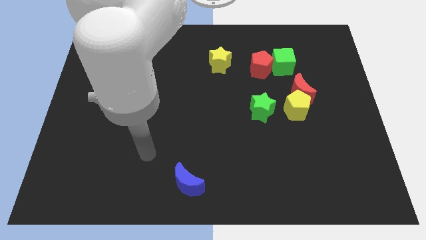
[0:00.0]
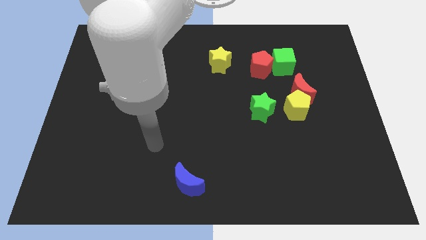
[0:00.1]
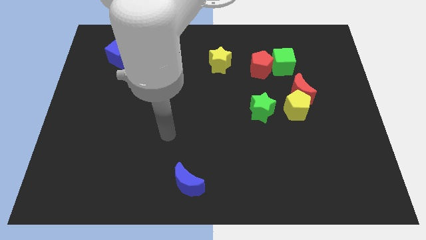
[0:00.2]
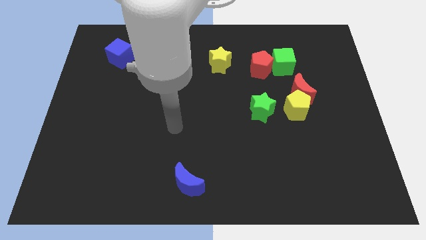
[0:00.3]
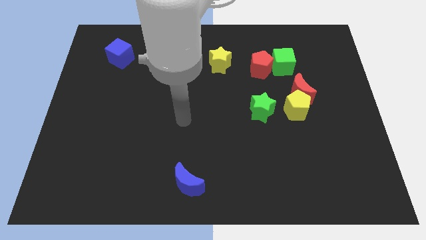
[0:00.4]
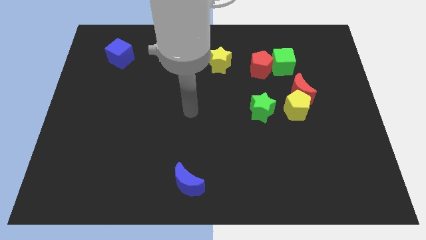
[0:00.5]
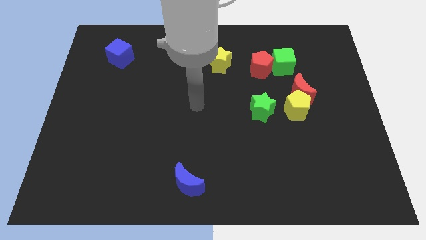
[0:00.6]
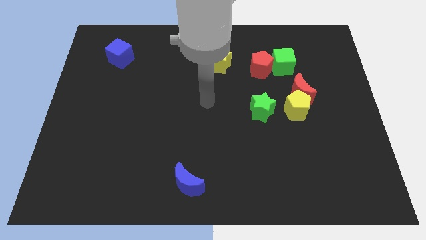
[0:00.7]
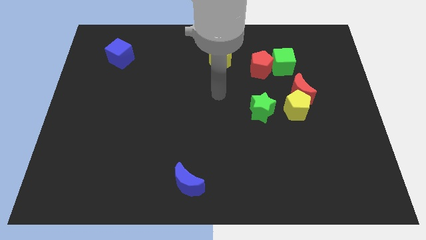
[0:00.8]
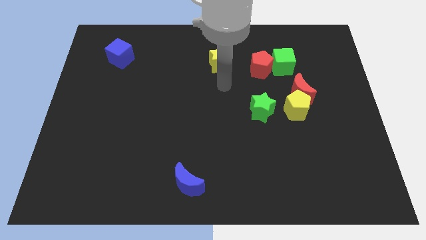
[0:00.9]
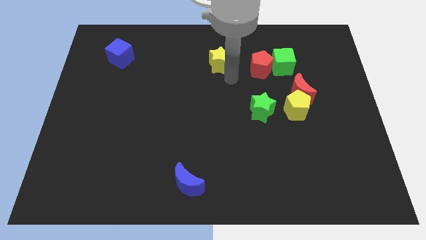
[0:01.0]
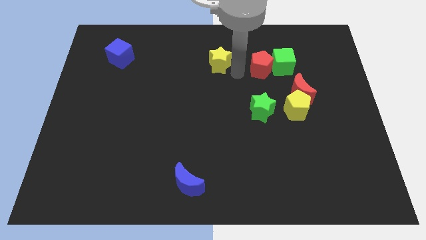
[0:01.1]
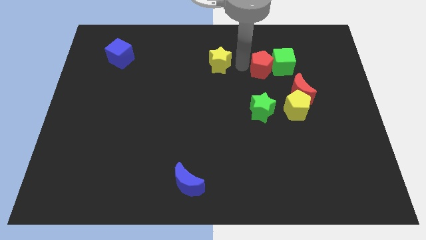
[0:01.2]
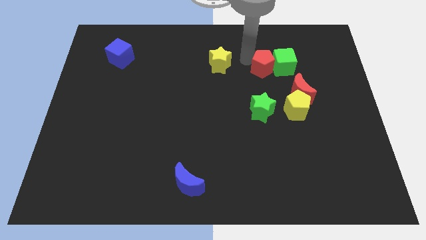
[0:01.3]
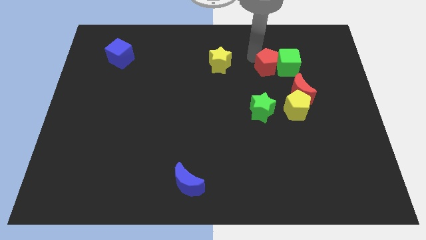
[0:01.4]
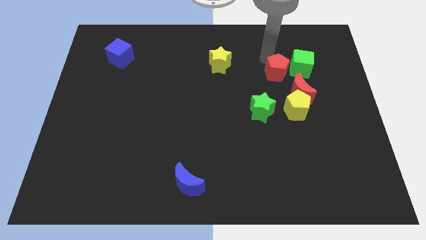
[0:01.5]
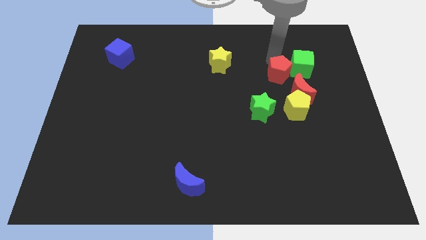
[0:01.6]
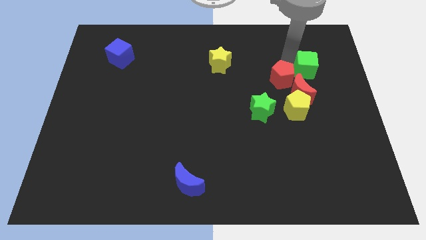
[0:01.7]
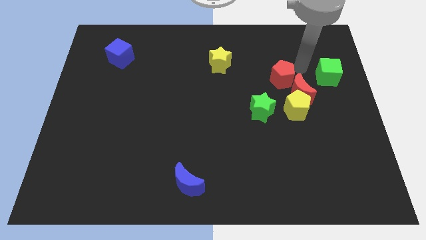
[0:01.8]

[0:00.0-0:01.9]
move the red pentagon away from the green cube

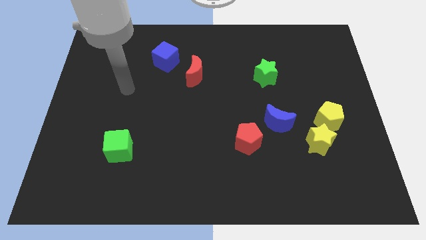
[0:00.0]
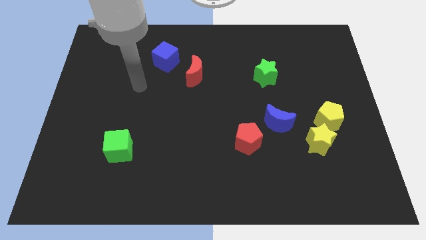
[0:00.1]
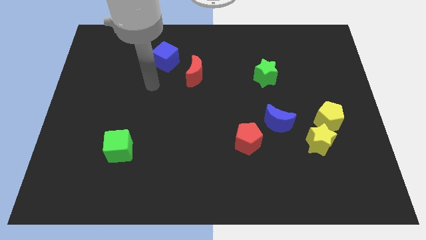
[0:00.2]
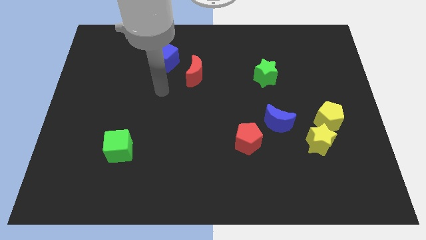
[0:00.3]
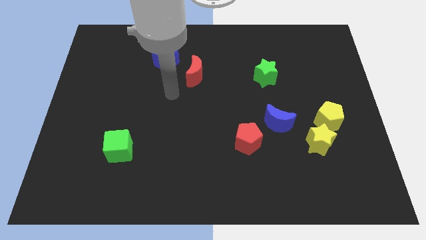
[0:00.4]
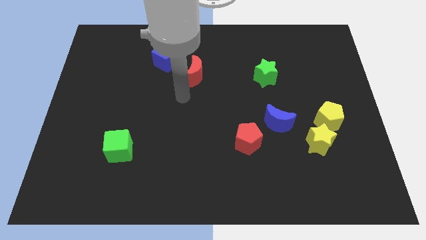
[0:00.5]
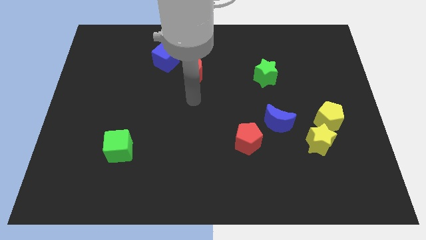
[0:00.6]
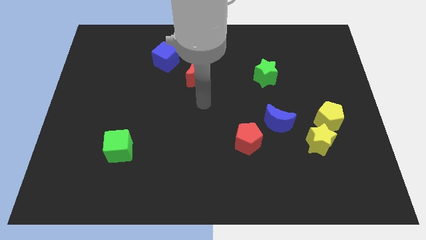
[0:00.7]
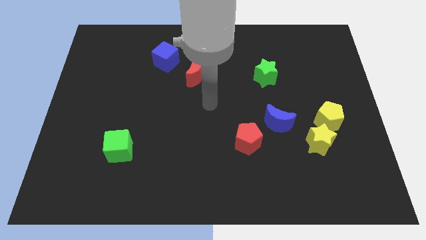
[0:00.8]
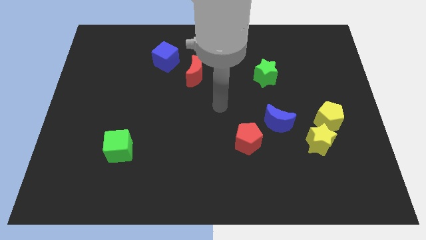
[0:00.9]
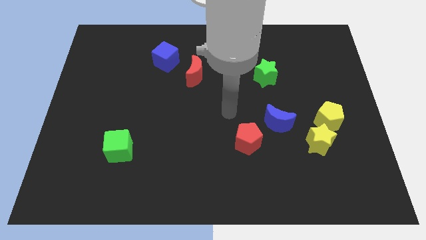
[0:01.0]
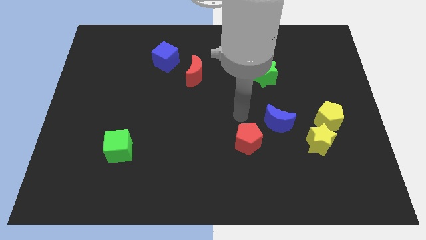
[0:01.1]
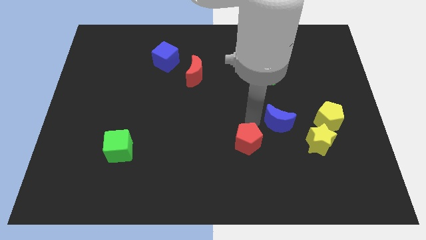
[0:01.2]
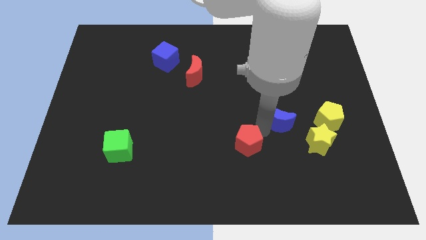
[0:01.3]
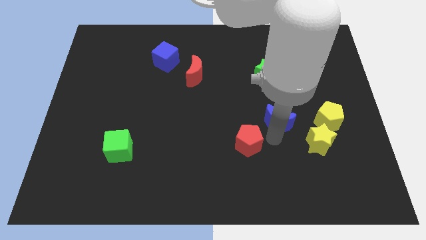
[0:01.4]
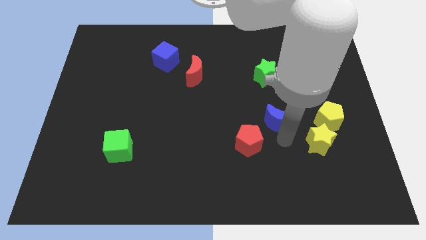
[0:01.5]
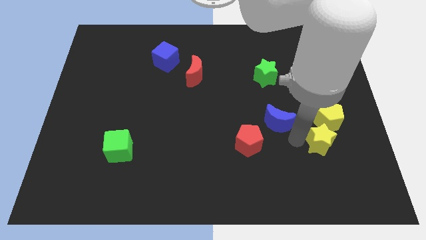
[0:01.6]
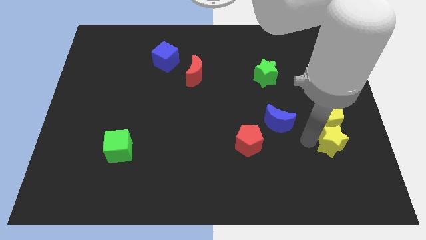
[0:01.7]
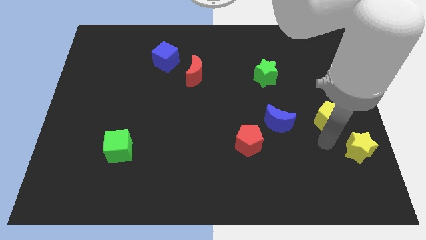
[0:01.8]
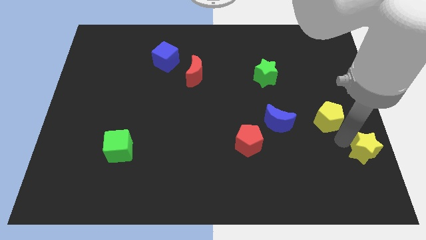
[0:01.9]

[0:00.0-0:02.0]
move the yellow pentagon away from the yellow star

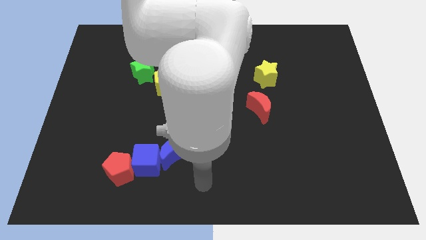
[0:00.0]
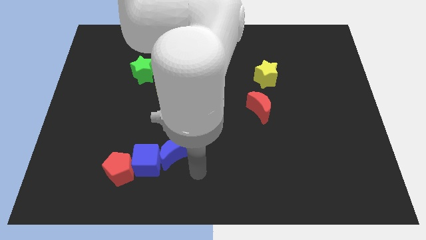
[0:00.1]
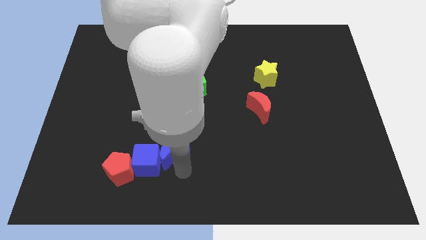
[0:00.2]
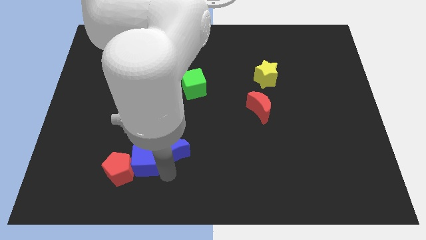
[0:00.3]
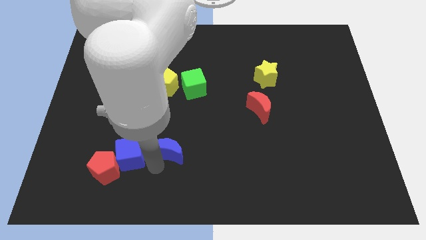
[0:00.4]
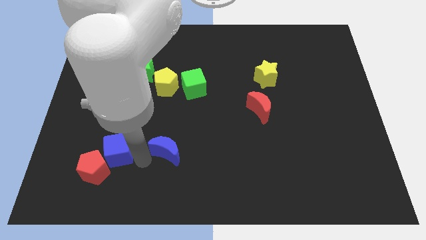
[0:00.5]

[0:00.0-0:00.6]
pull the blue moon apart from the blue cube

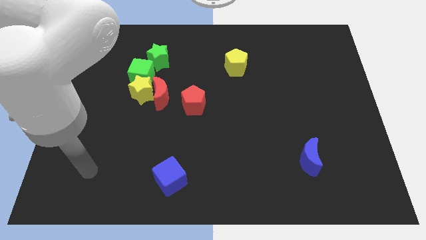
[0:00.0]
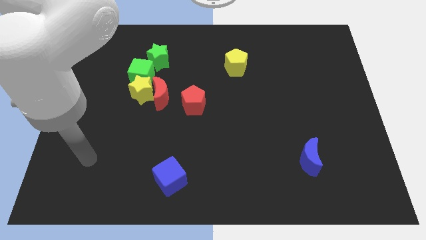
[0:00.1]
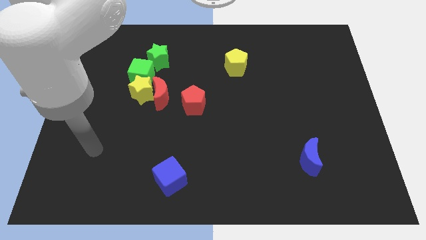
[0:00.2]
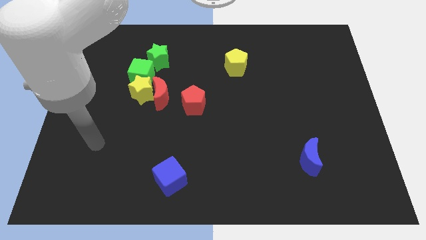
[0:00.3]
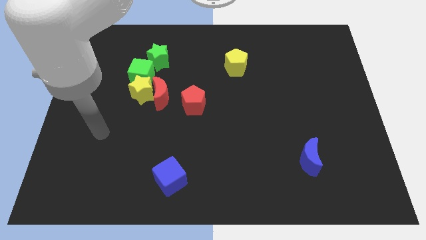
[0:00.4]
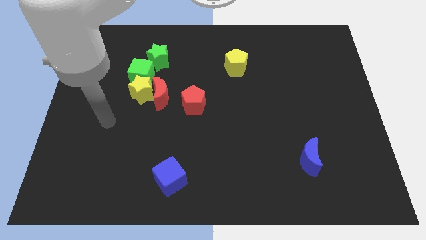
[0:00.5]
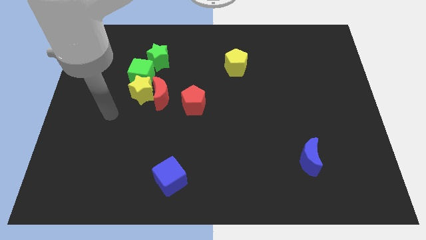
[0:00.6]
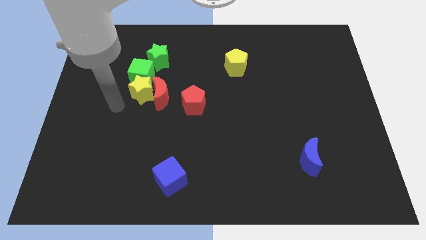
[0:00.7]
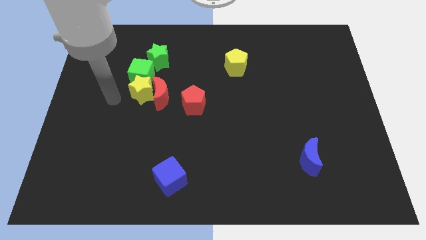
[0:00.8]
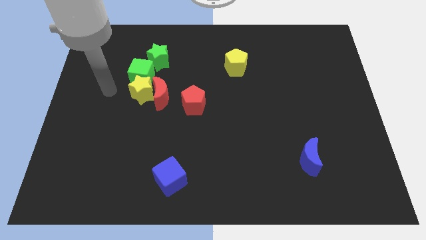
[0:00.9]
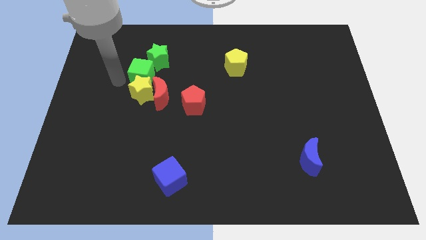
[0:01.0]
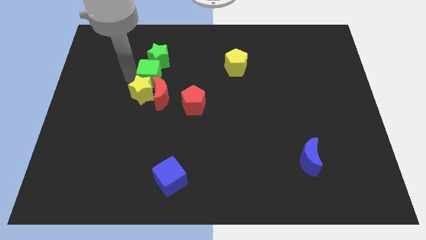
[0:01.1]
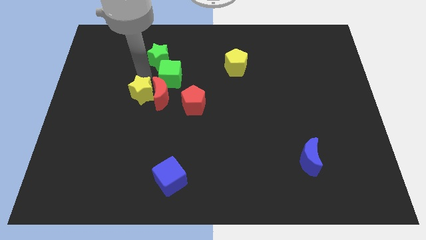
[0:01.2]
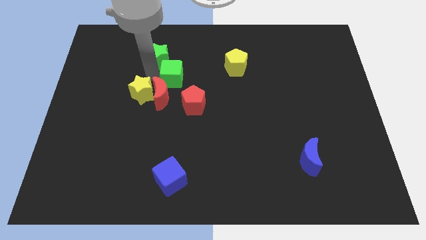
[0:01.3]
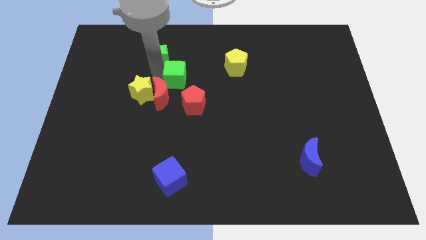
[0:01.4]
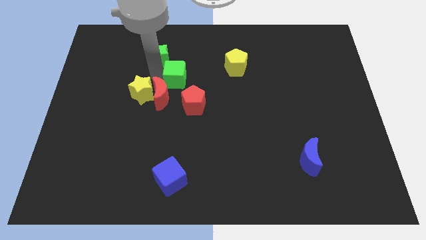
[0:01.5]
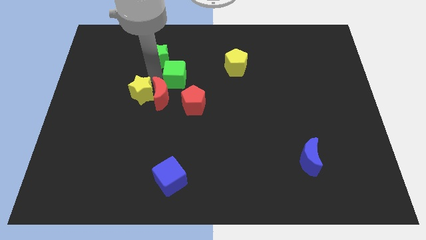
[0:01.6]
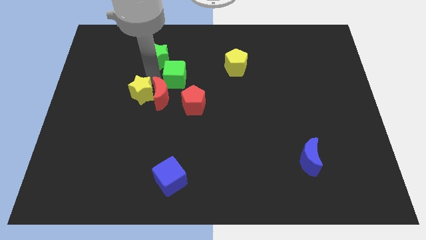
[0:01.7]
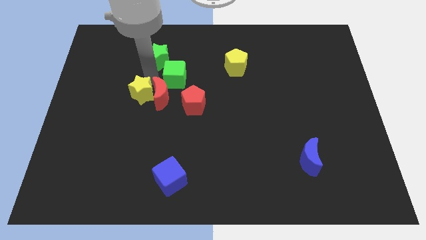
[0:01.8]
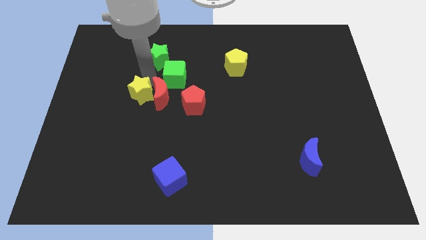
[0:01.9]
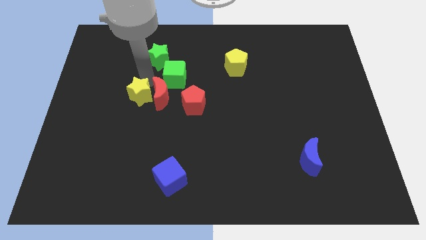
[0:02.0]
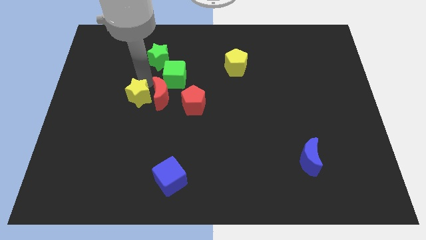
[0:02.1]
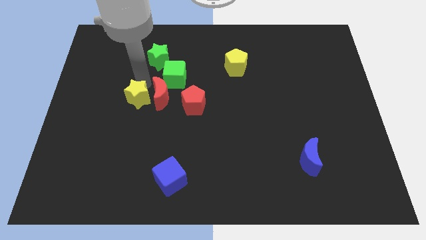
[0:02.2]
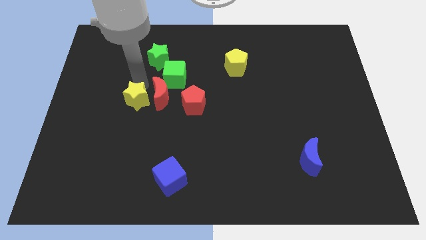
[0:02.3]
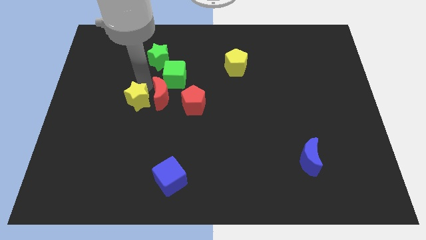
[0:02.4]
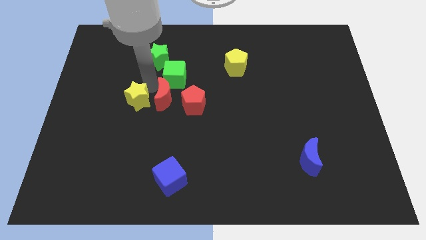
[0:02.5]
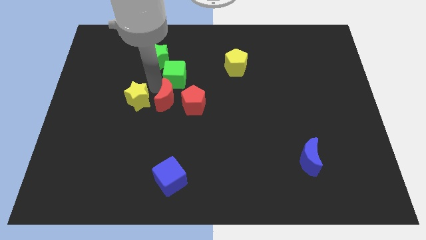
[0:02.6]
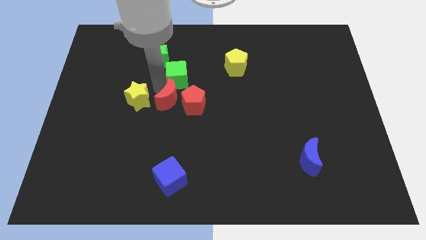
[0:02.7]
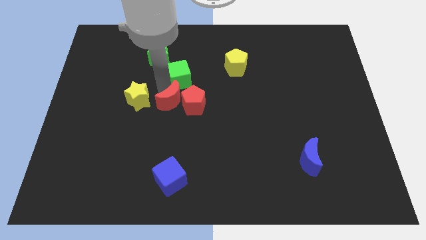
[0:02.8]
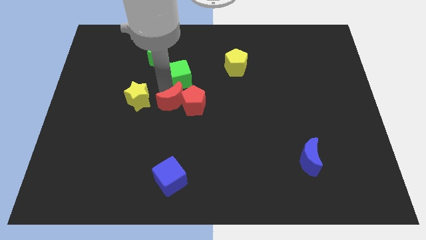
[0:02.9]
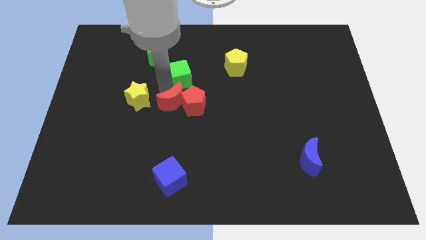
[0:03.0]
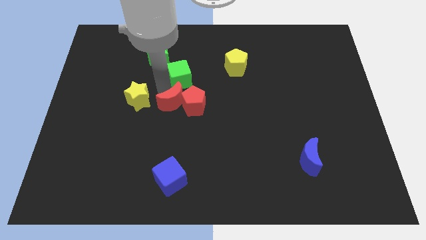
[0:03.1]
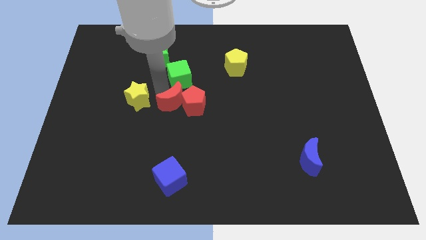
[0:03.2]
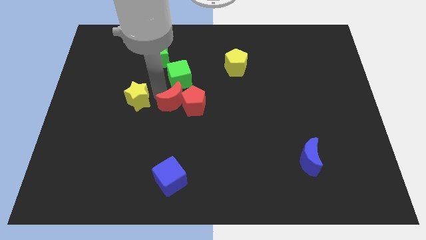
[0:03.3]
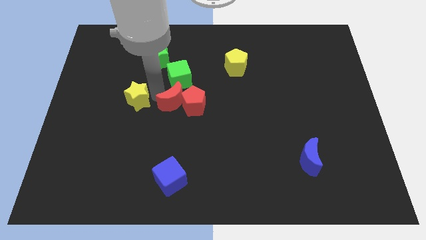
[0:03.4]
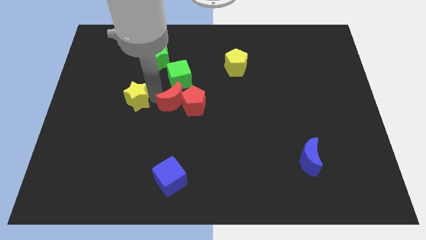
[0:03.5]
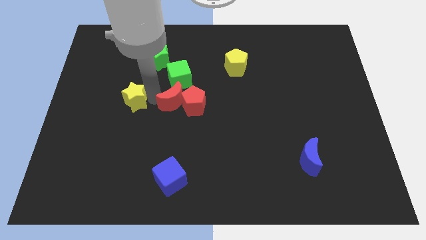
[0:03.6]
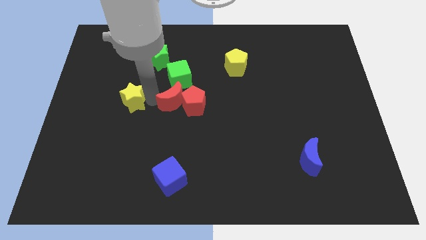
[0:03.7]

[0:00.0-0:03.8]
pull the yellow star apart from the red moon and green cube

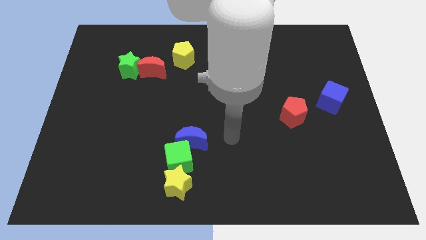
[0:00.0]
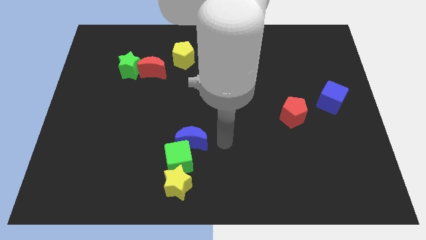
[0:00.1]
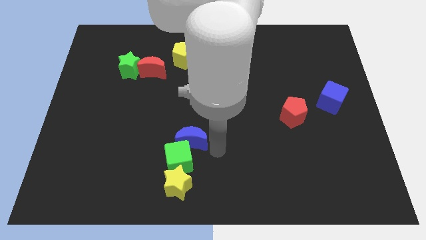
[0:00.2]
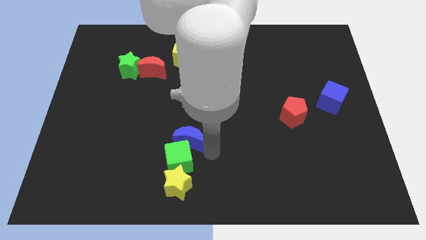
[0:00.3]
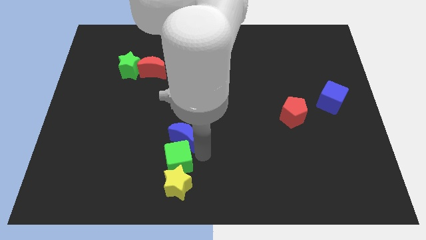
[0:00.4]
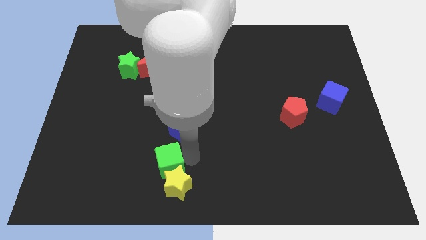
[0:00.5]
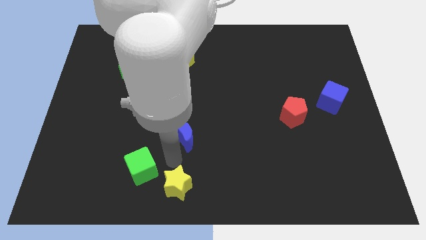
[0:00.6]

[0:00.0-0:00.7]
pull the blue moon apart from the green cube

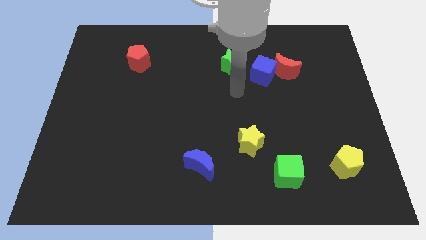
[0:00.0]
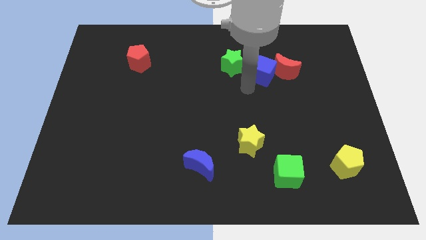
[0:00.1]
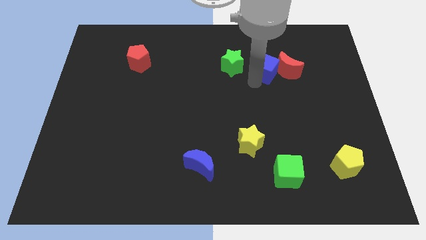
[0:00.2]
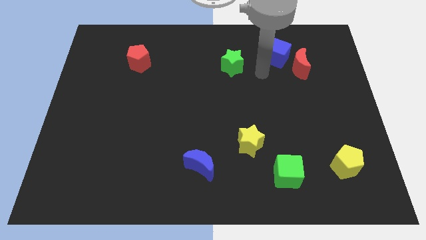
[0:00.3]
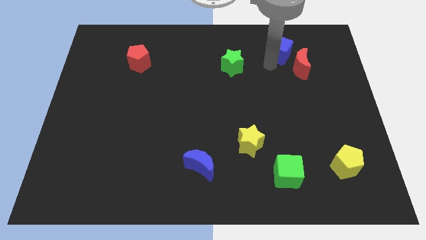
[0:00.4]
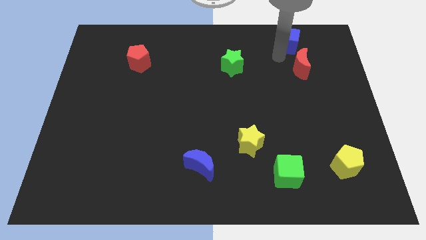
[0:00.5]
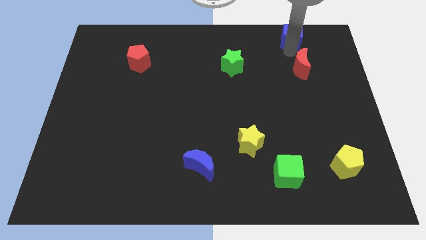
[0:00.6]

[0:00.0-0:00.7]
separate the red moon from the blue cube
